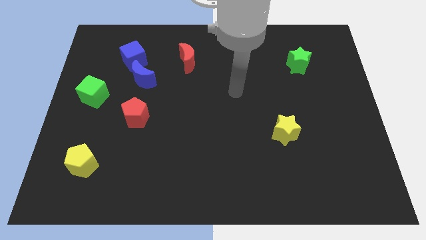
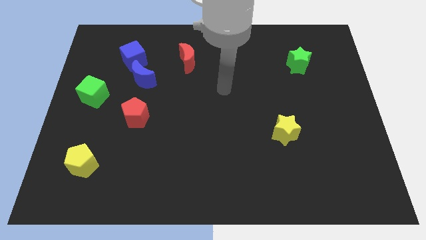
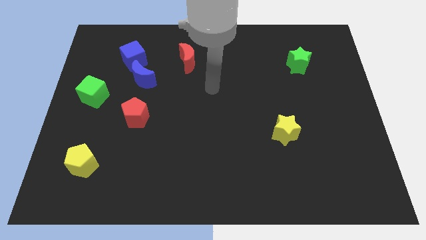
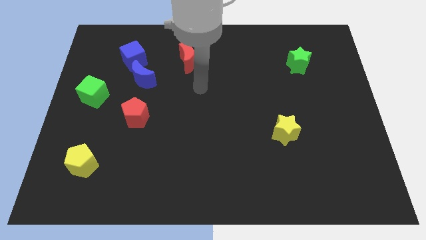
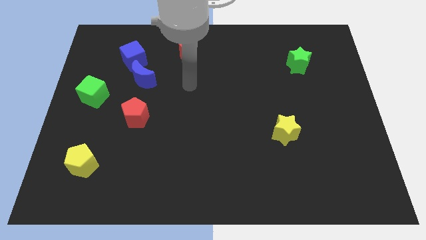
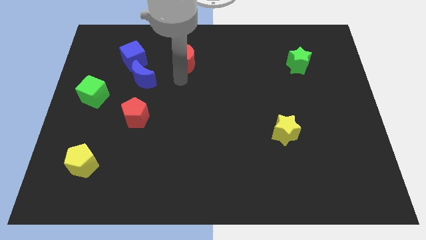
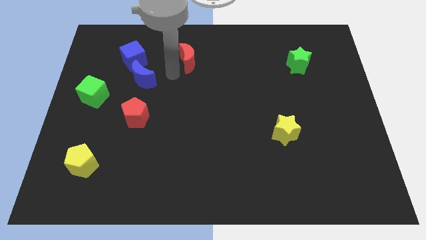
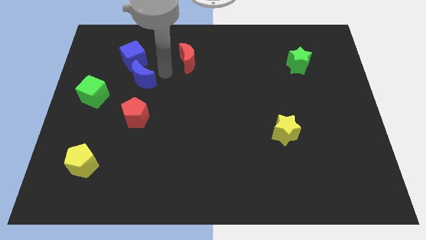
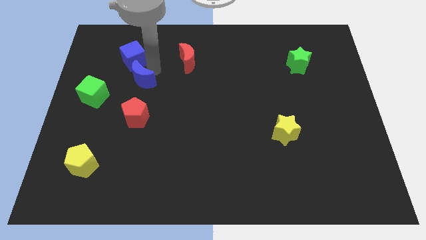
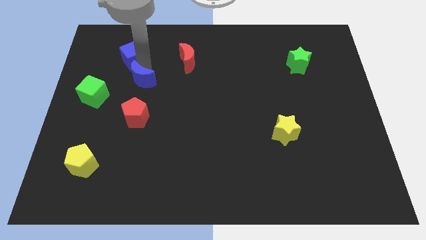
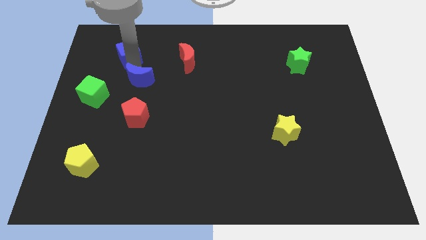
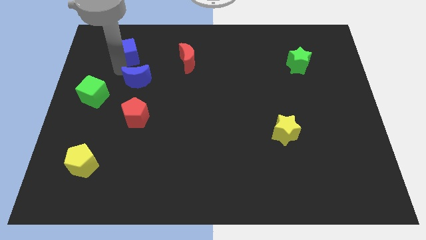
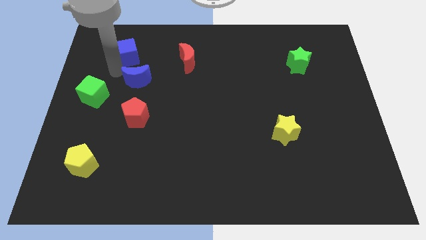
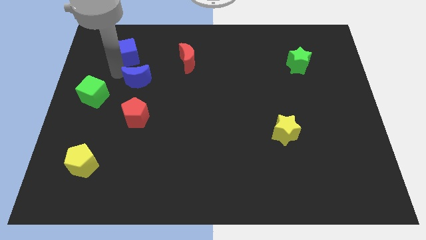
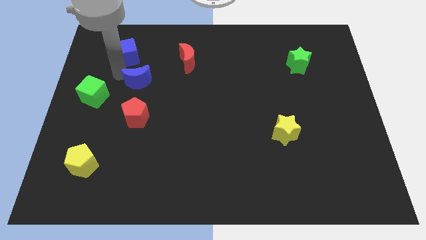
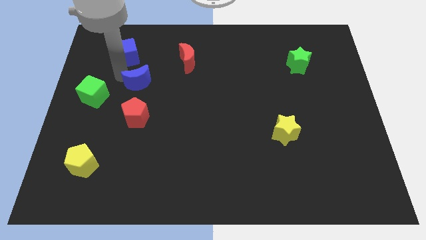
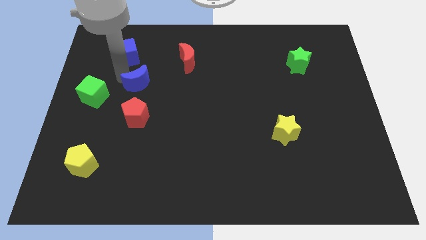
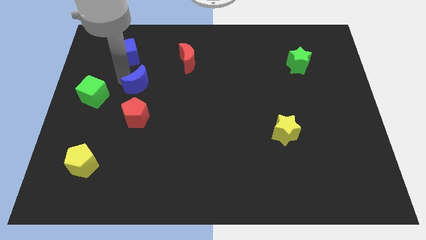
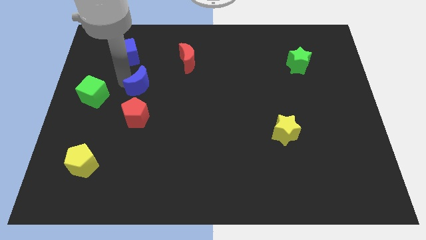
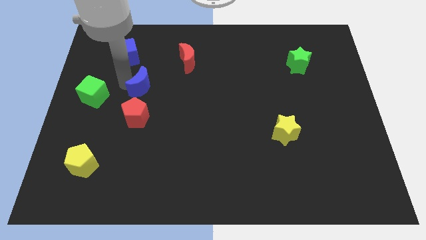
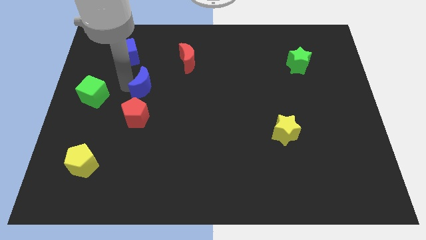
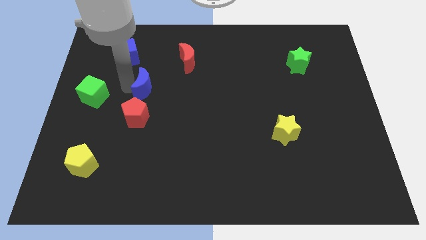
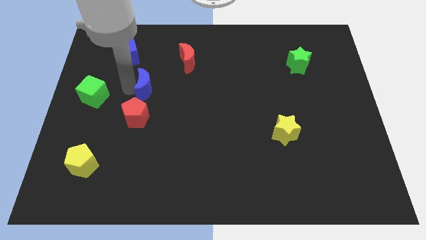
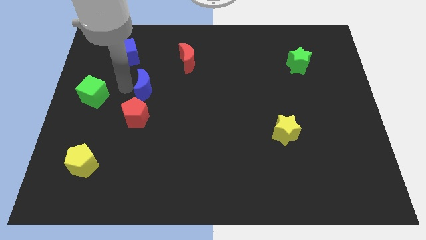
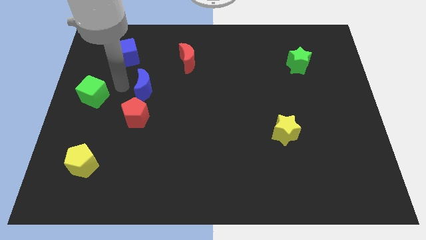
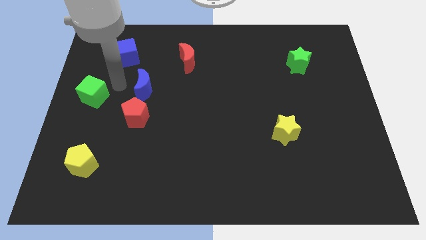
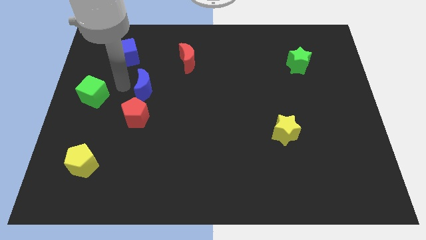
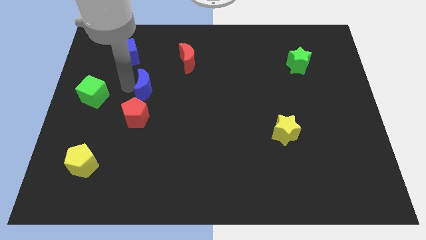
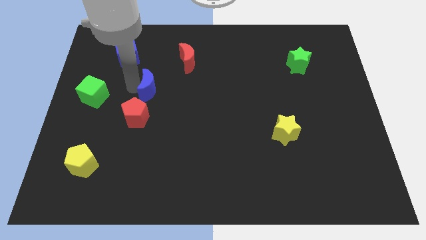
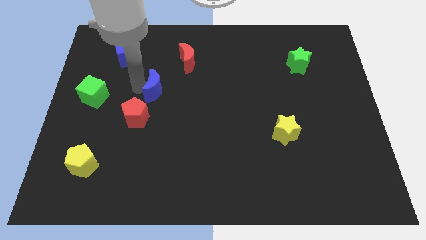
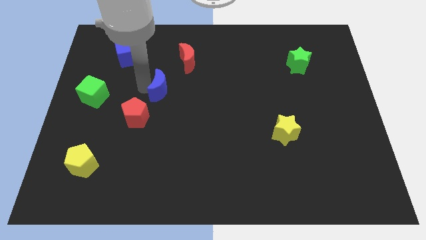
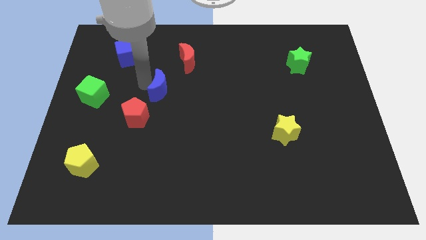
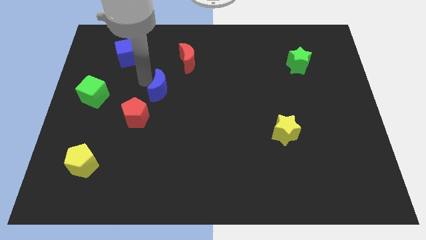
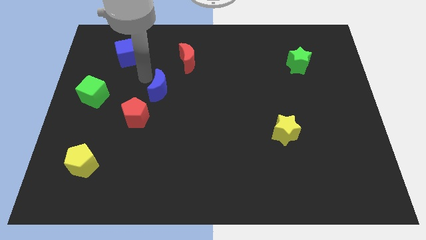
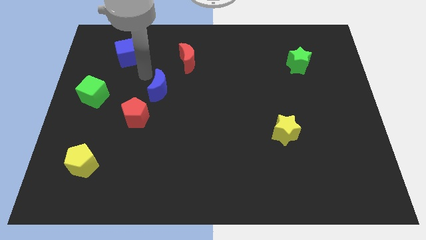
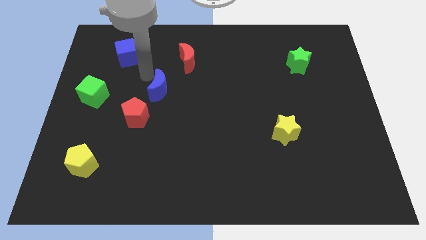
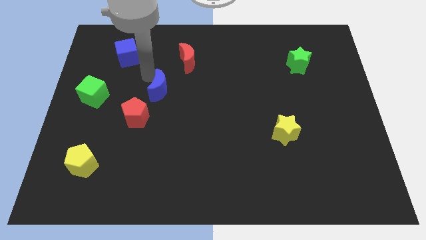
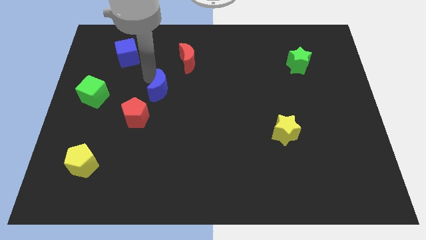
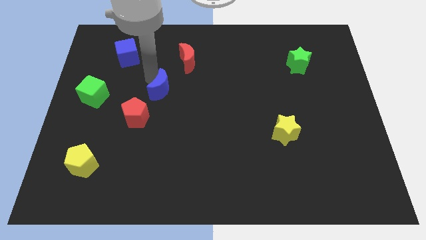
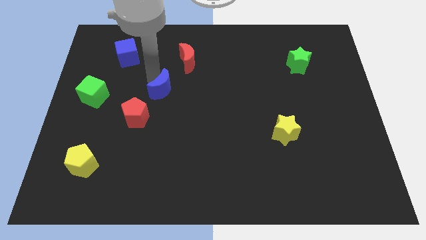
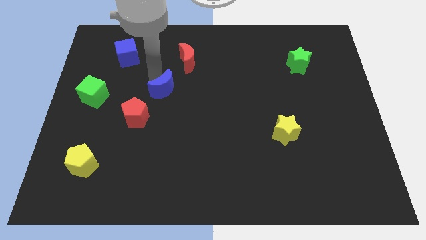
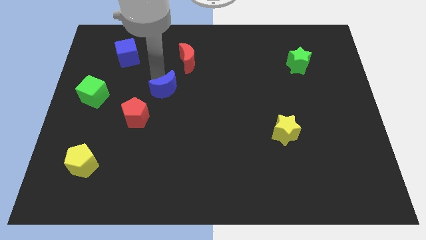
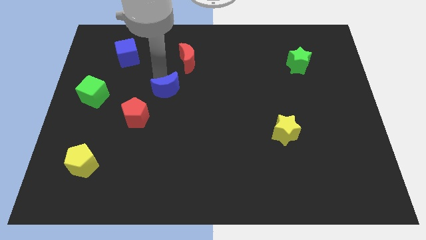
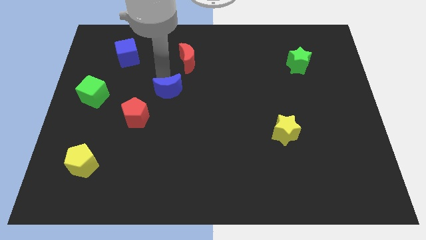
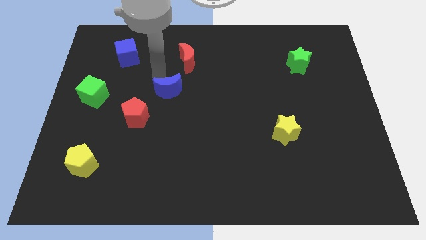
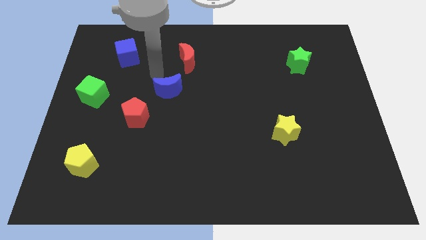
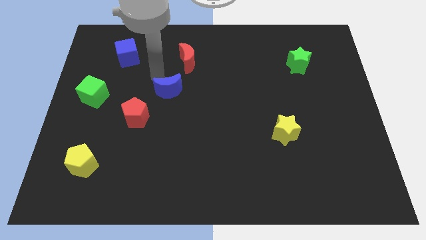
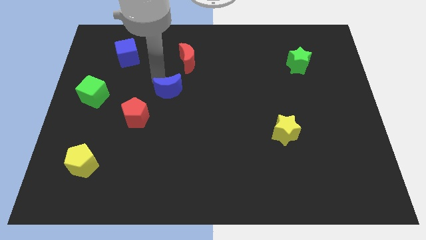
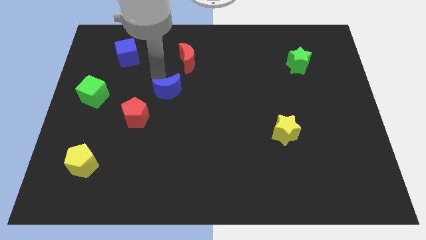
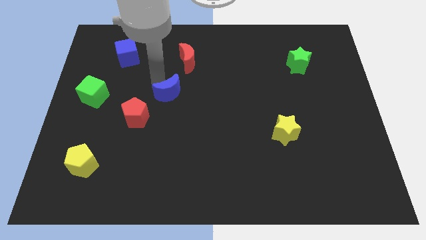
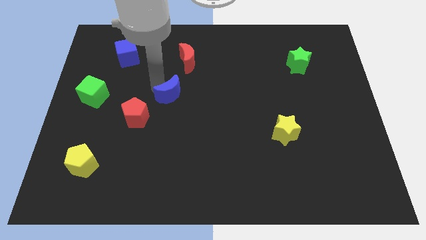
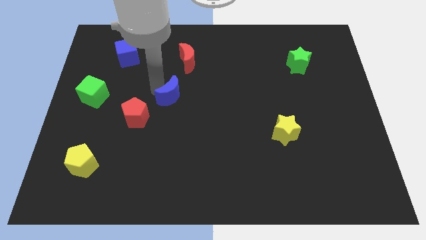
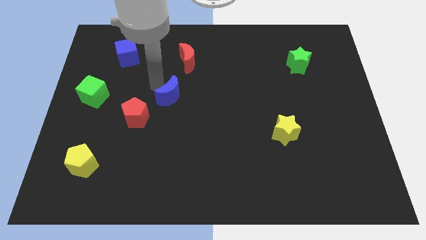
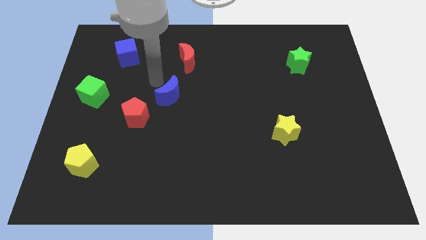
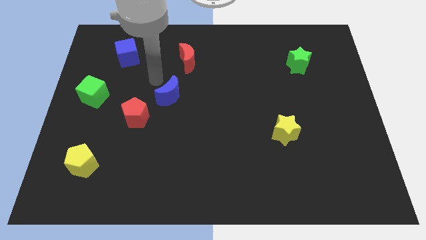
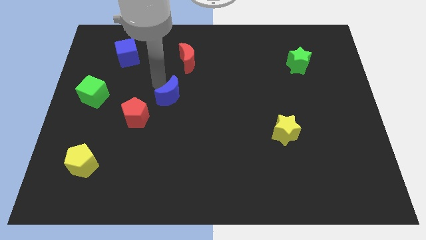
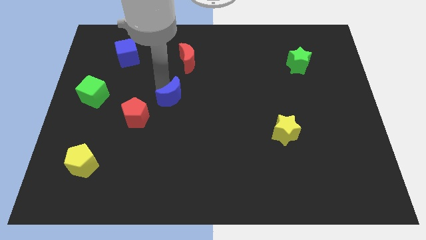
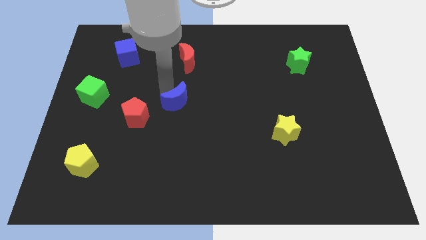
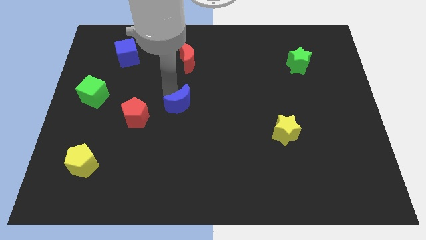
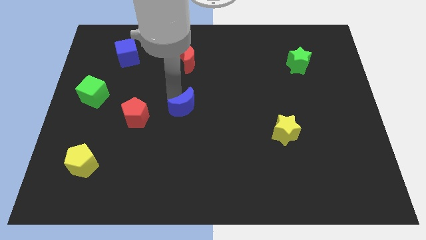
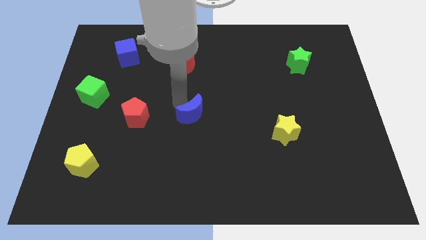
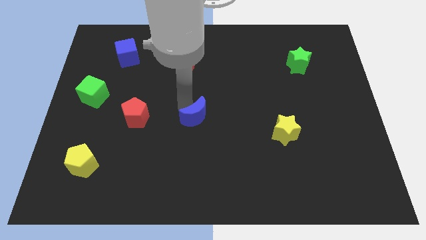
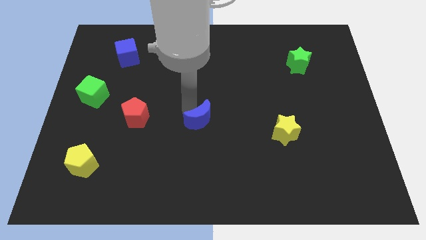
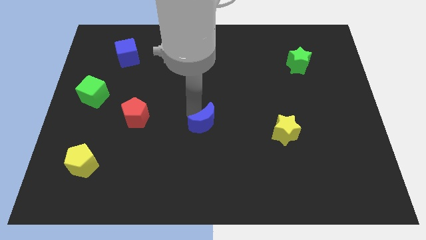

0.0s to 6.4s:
move the blue moon diagonally downwards and to the right

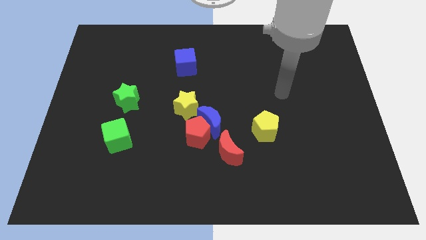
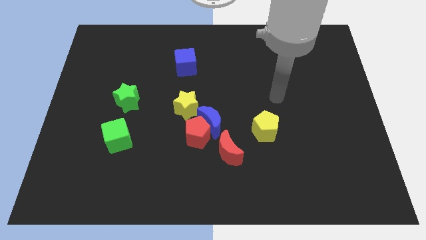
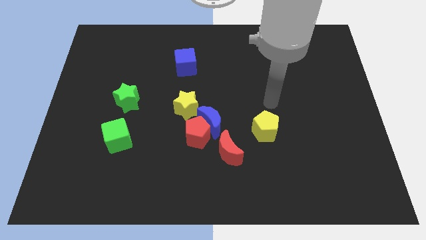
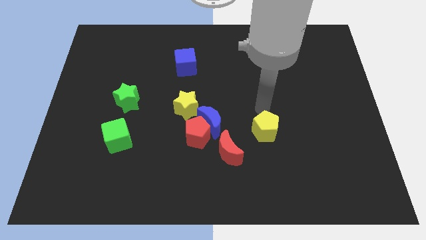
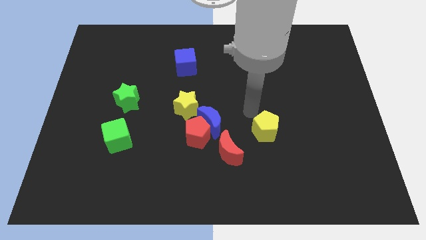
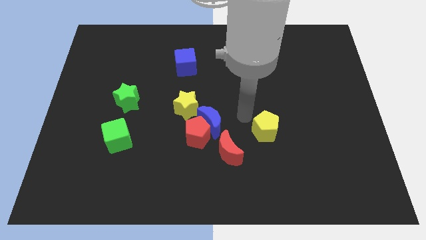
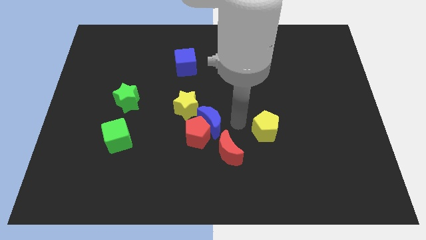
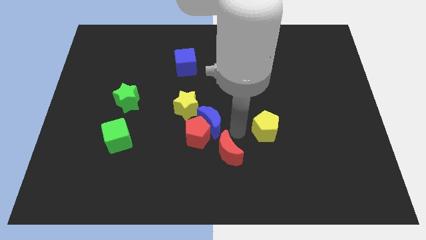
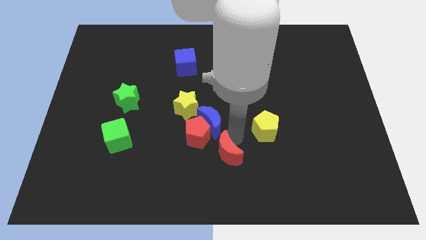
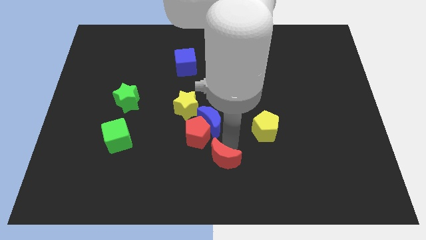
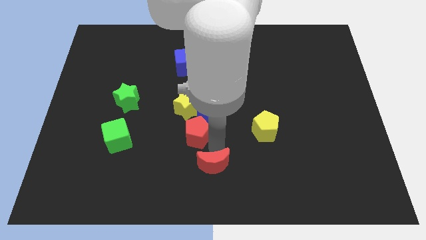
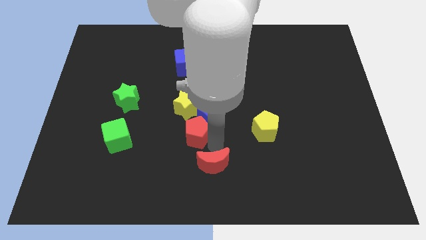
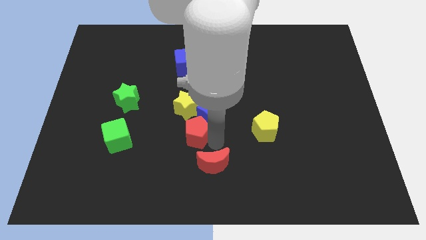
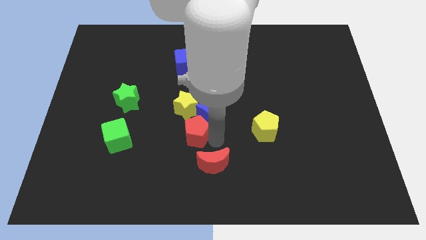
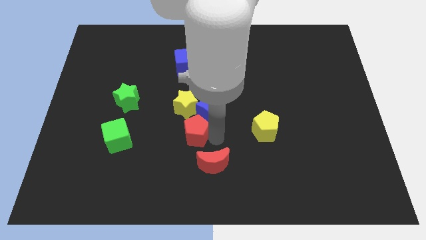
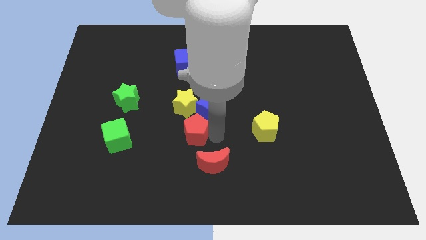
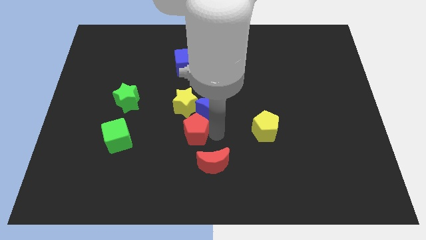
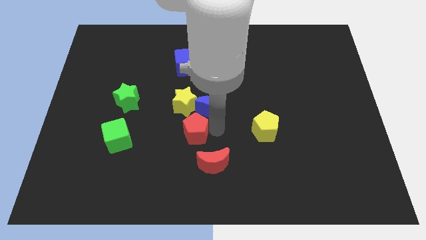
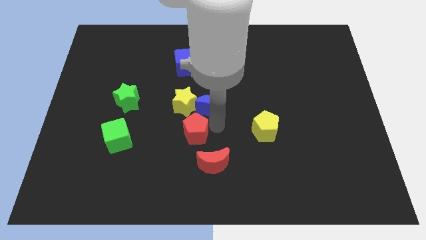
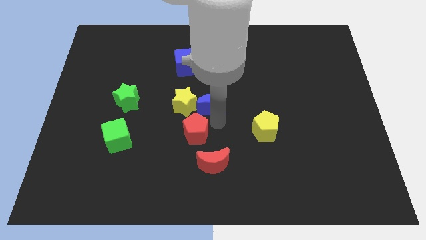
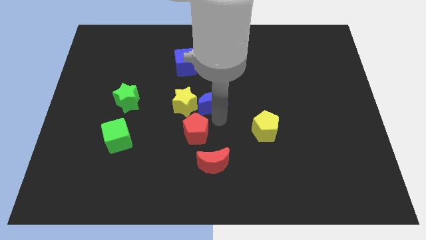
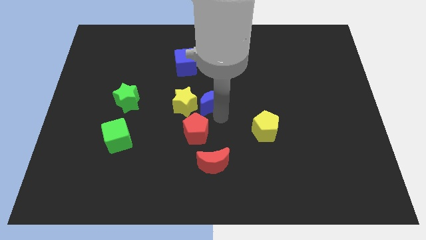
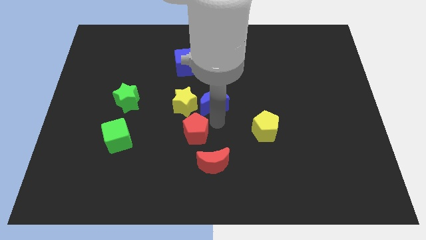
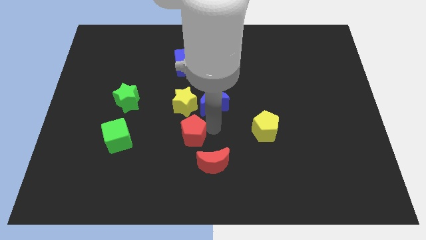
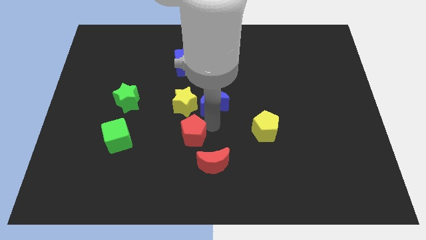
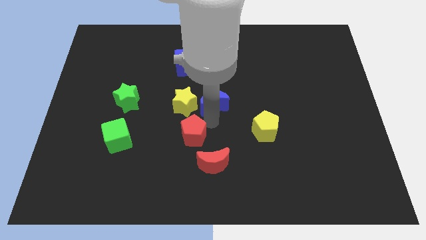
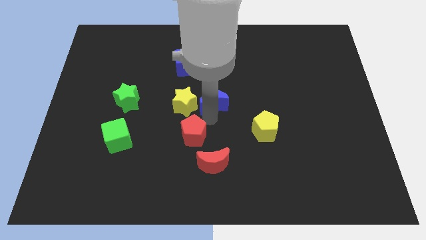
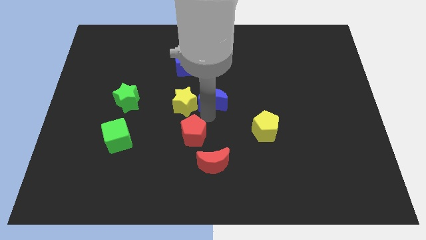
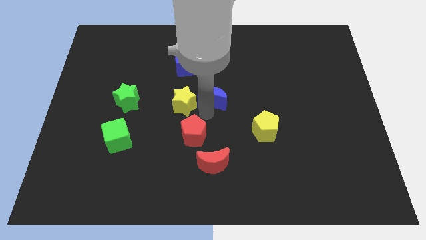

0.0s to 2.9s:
move the blue moon a bit upwards
